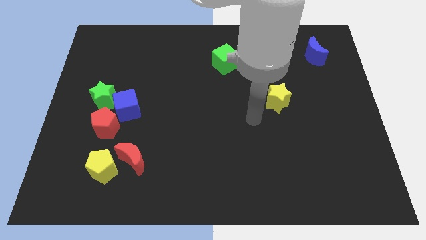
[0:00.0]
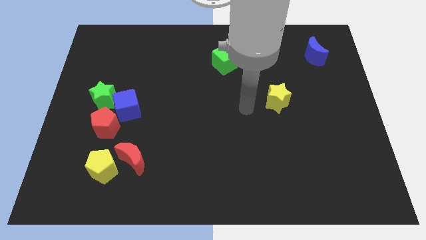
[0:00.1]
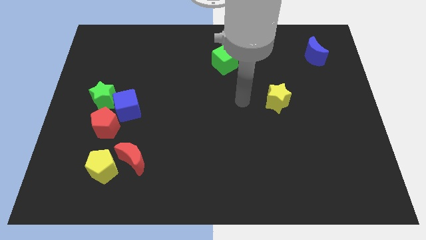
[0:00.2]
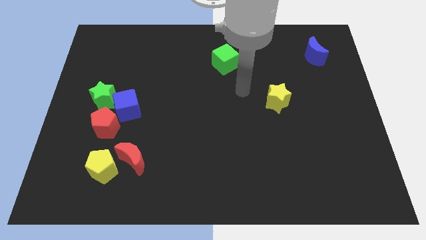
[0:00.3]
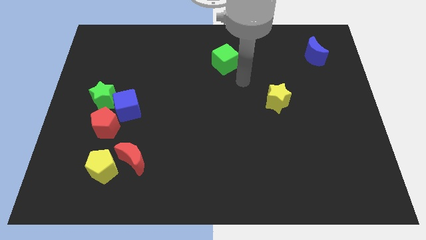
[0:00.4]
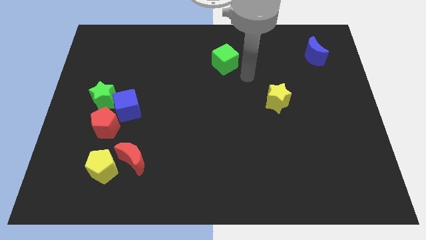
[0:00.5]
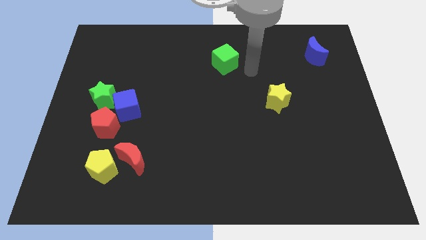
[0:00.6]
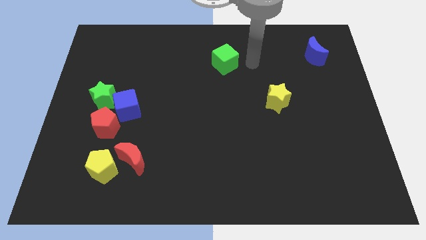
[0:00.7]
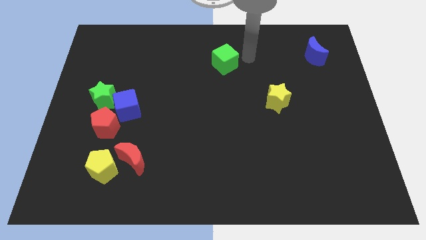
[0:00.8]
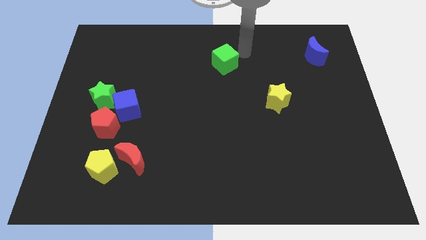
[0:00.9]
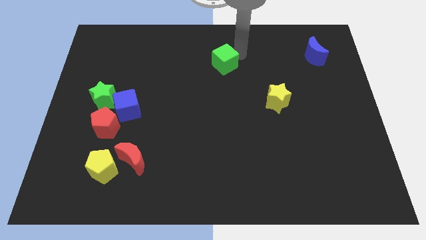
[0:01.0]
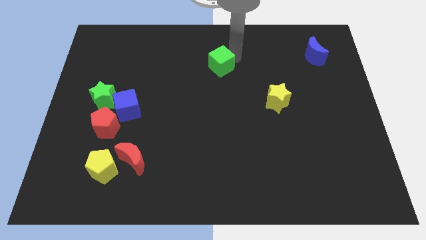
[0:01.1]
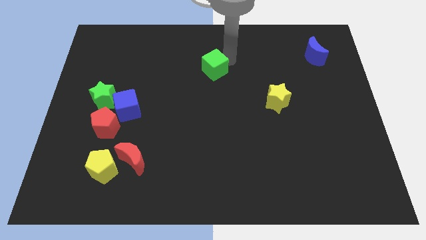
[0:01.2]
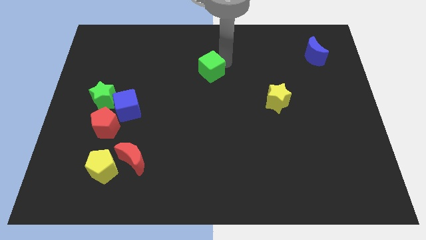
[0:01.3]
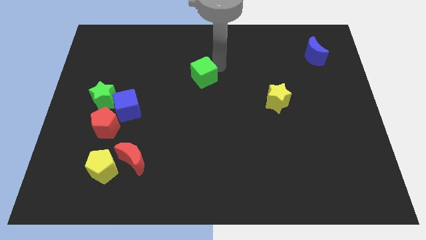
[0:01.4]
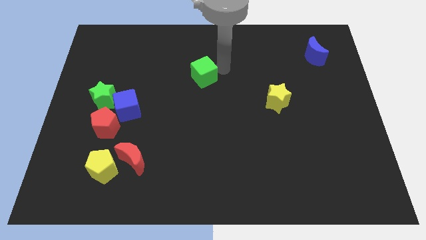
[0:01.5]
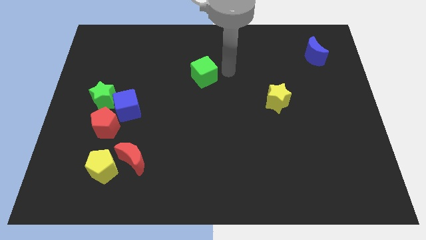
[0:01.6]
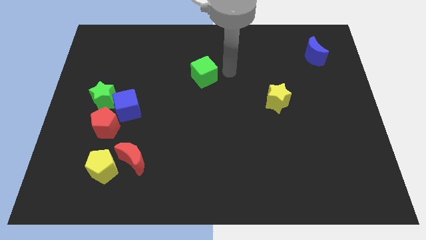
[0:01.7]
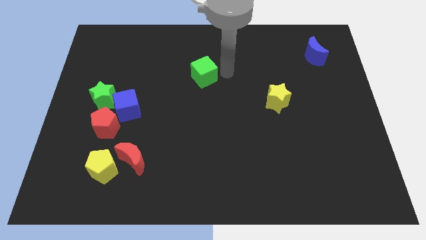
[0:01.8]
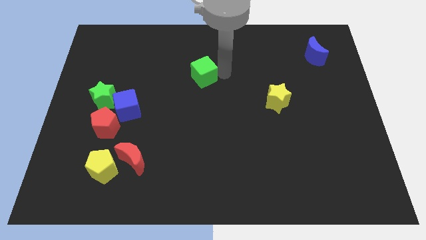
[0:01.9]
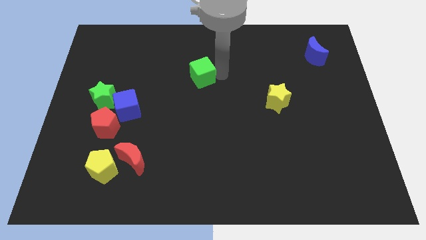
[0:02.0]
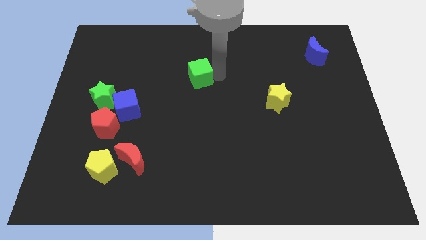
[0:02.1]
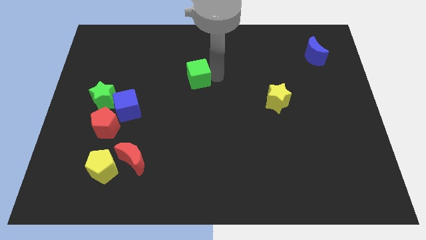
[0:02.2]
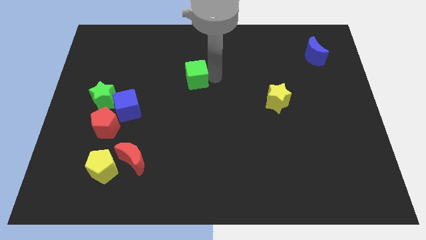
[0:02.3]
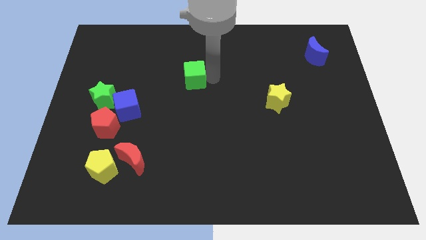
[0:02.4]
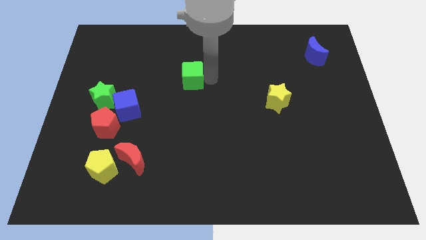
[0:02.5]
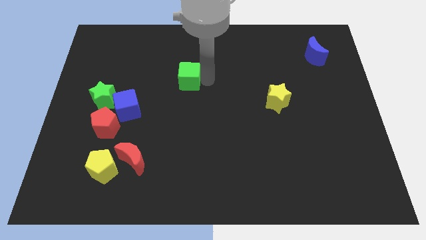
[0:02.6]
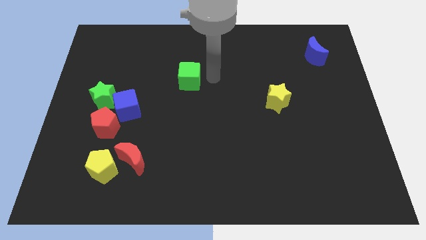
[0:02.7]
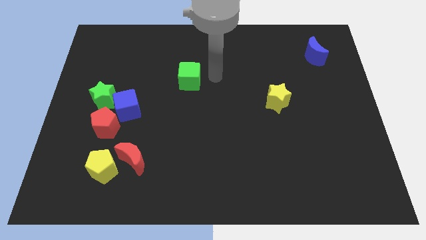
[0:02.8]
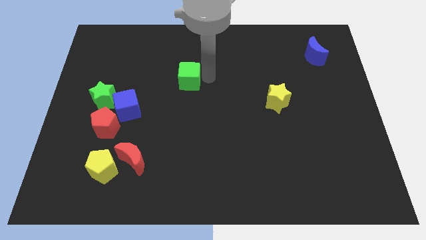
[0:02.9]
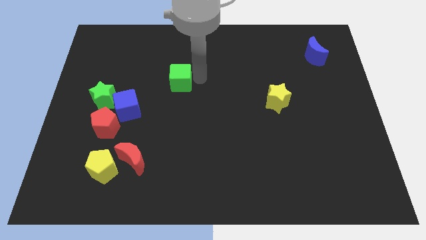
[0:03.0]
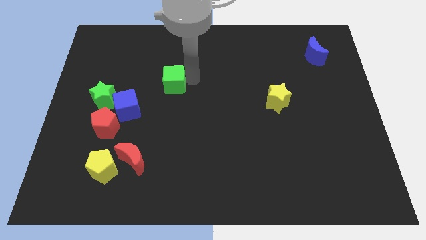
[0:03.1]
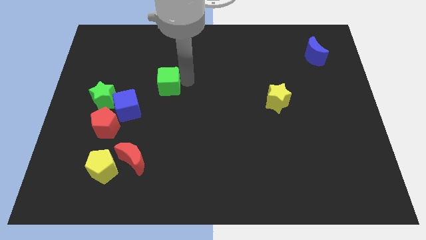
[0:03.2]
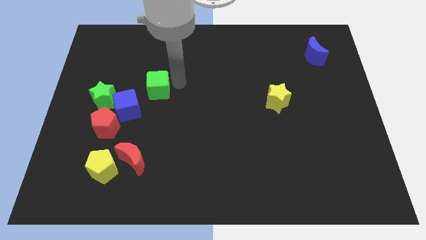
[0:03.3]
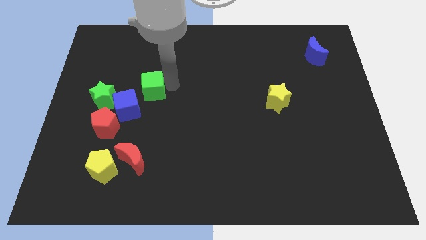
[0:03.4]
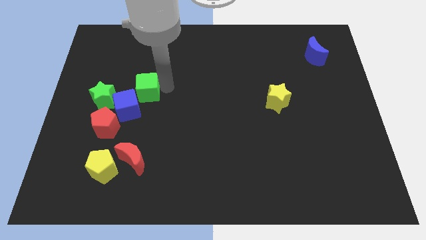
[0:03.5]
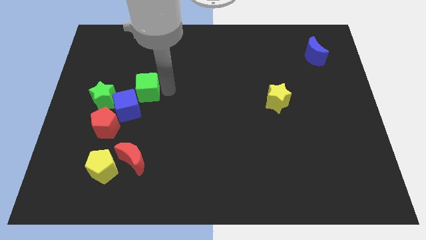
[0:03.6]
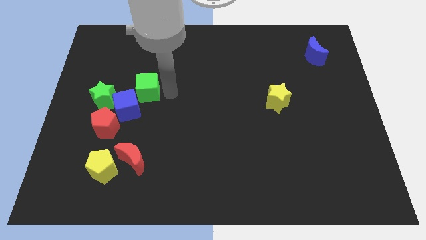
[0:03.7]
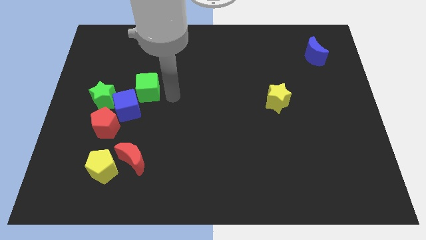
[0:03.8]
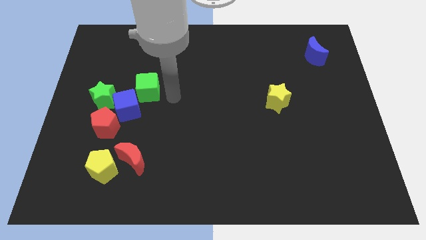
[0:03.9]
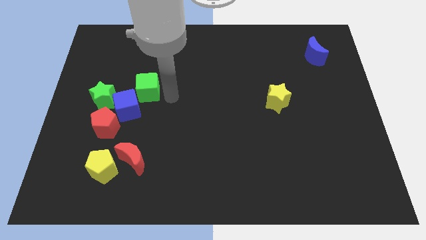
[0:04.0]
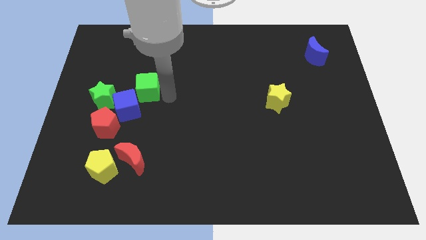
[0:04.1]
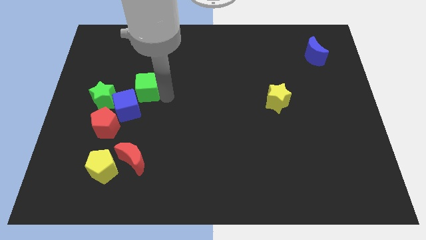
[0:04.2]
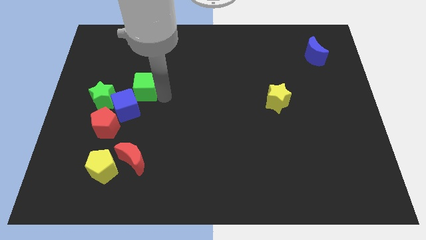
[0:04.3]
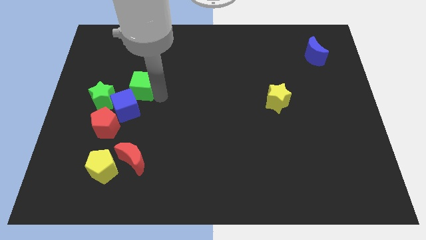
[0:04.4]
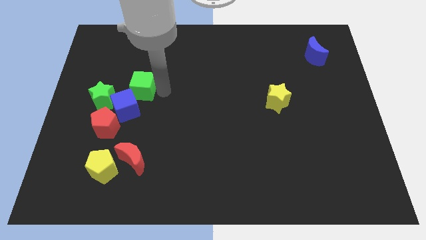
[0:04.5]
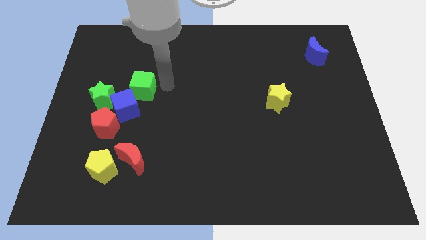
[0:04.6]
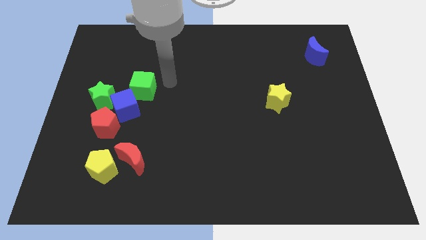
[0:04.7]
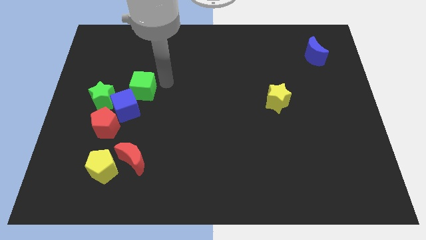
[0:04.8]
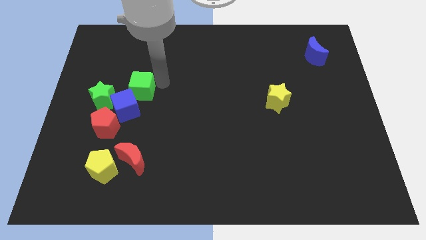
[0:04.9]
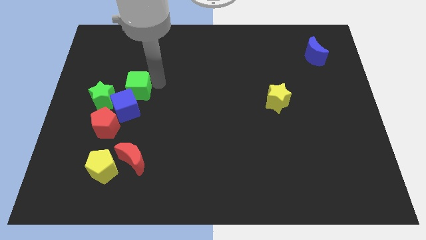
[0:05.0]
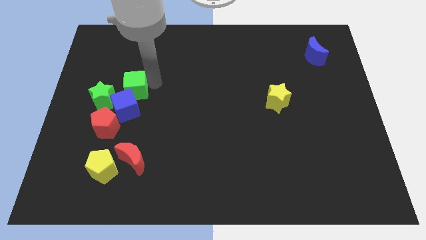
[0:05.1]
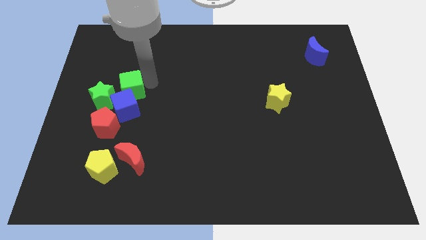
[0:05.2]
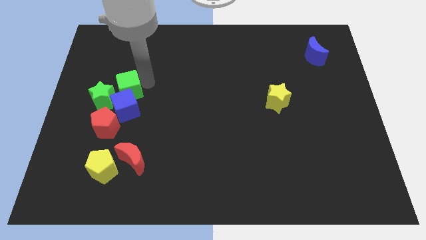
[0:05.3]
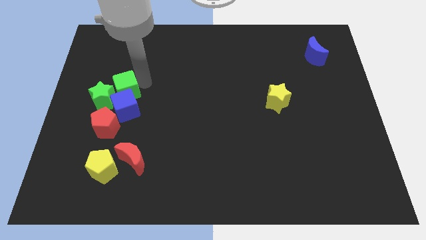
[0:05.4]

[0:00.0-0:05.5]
move the green cube close to the green star

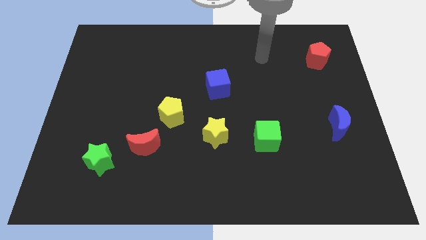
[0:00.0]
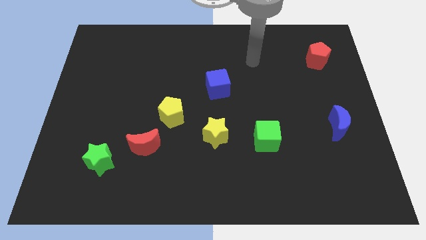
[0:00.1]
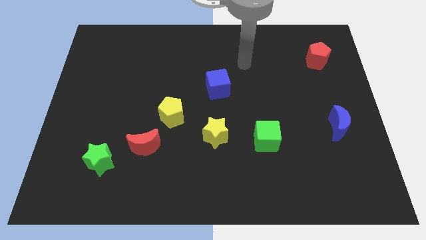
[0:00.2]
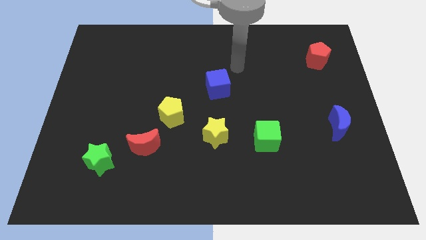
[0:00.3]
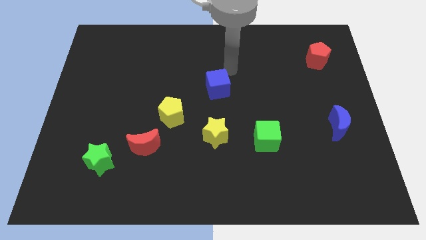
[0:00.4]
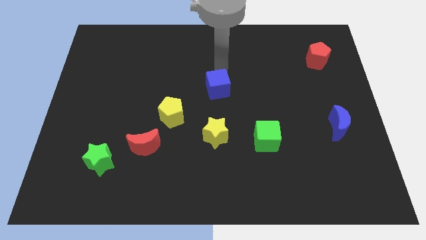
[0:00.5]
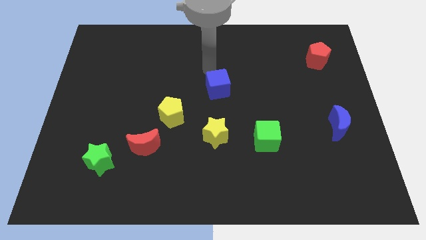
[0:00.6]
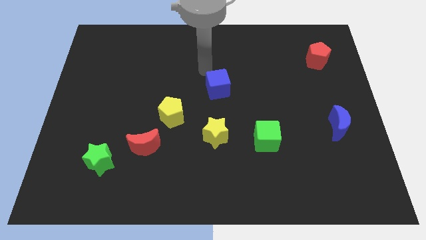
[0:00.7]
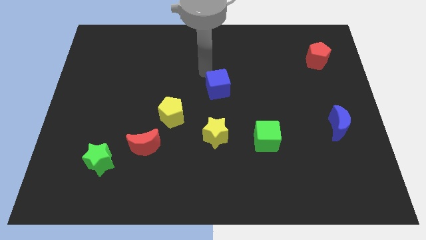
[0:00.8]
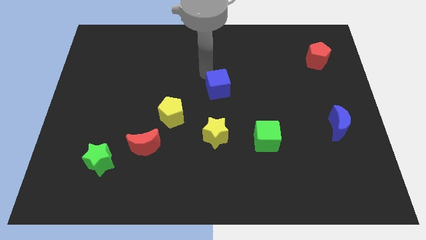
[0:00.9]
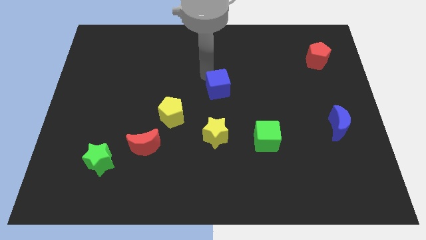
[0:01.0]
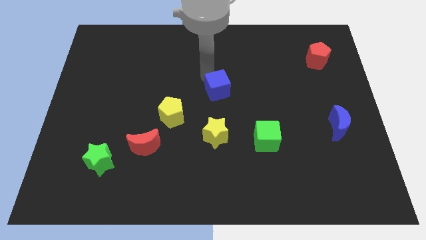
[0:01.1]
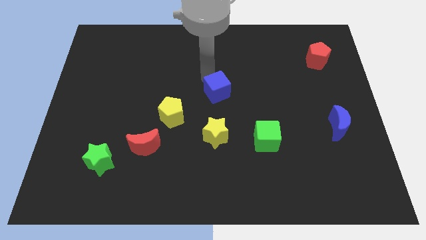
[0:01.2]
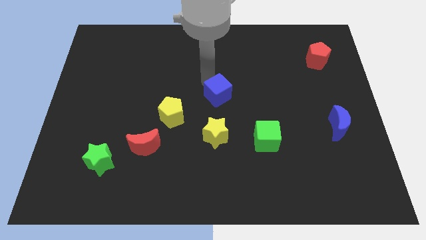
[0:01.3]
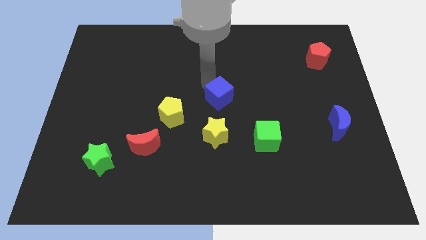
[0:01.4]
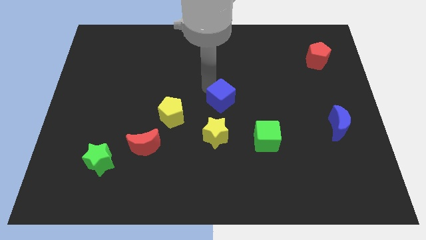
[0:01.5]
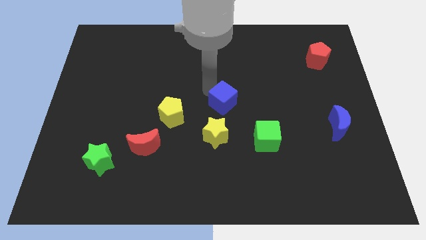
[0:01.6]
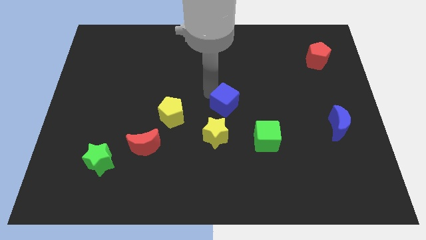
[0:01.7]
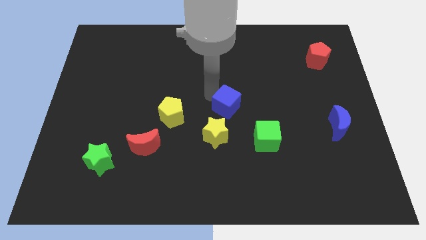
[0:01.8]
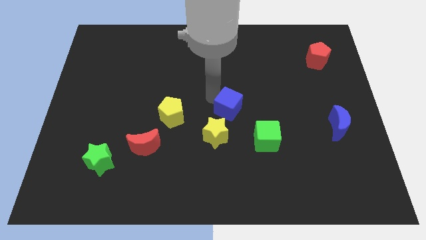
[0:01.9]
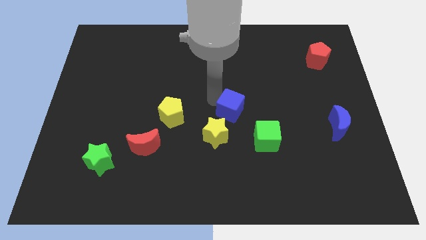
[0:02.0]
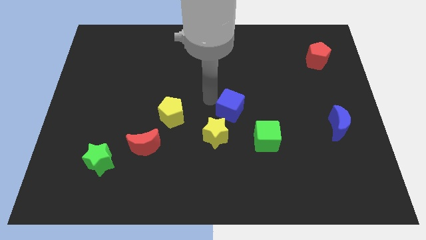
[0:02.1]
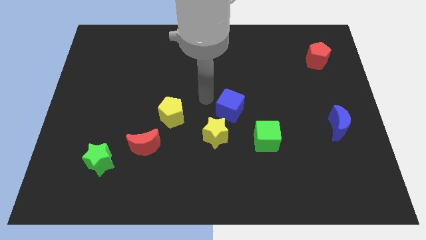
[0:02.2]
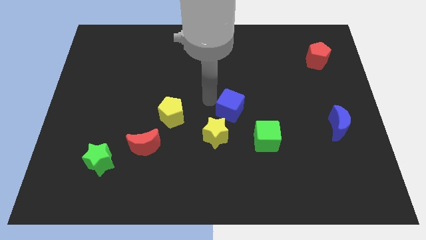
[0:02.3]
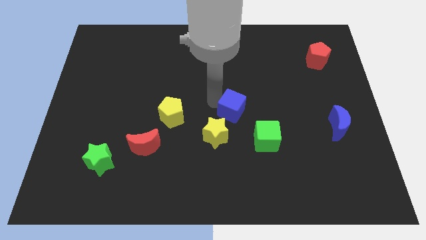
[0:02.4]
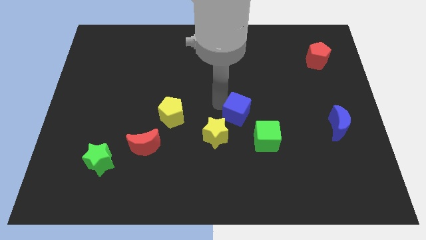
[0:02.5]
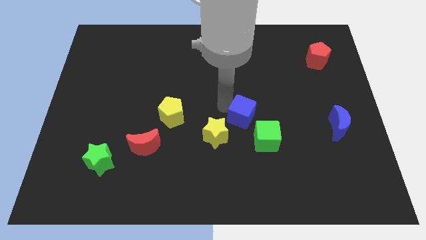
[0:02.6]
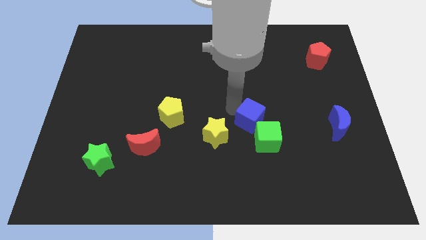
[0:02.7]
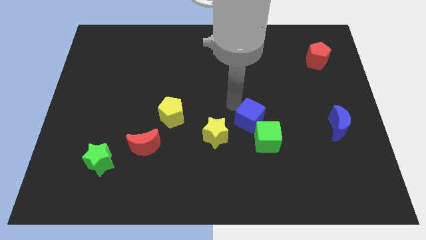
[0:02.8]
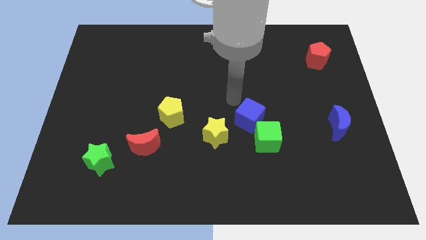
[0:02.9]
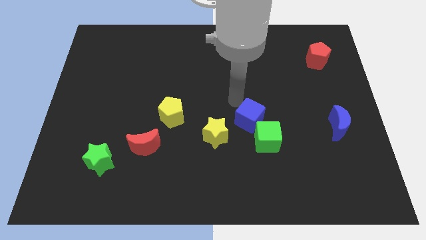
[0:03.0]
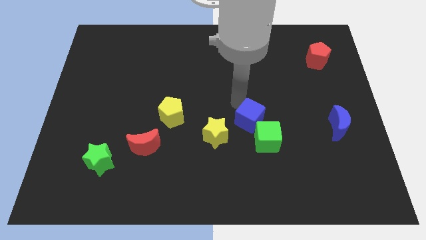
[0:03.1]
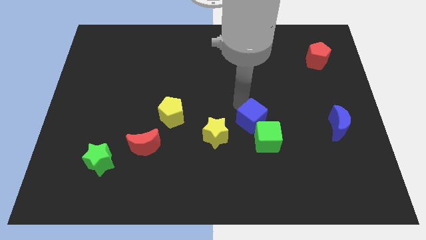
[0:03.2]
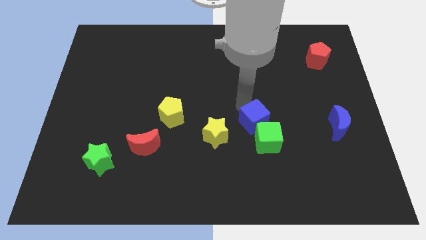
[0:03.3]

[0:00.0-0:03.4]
push the blue cube next to the green cube
